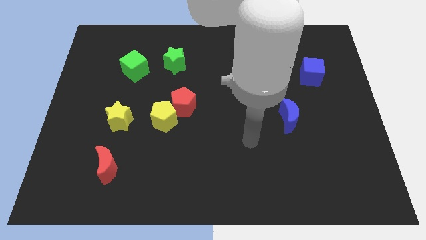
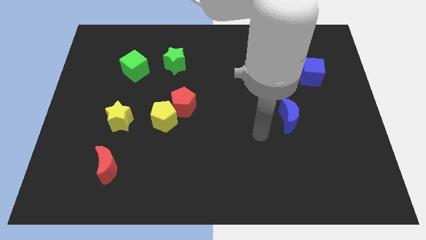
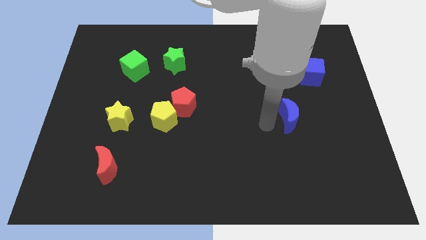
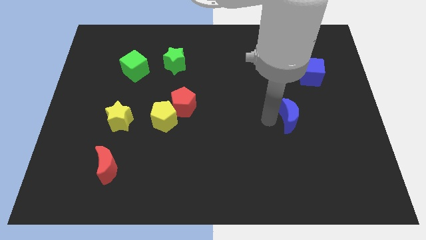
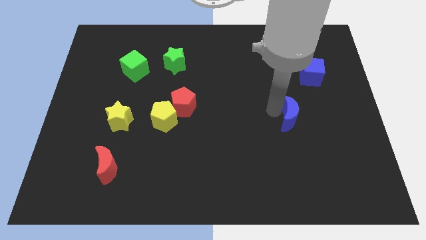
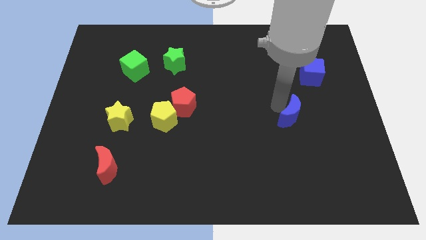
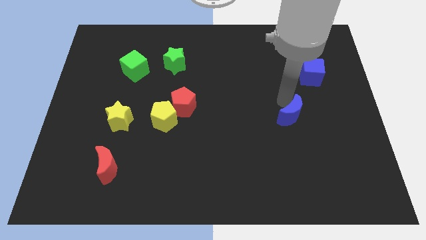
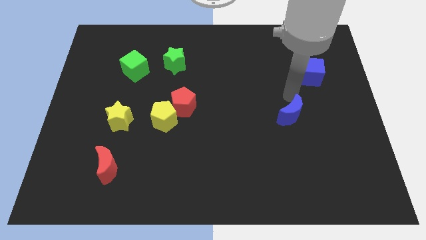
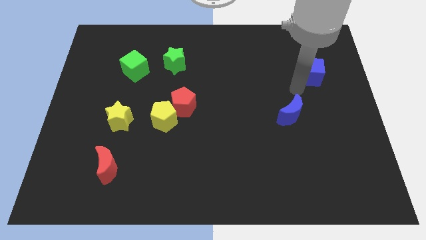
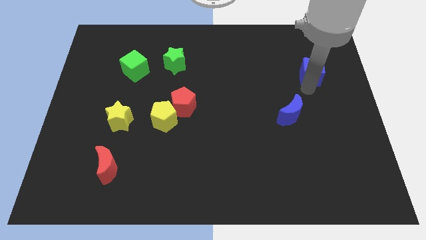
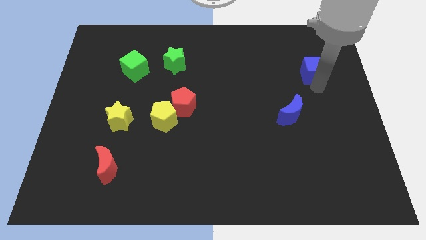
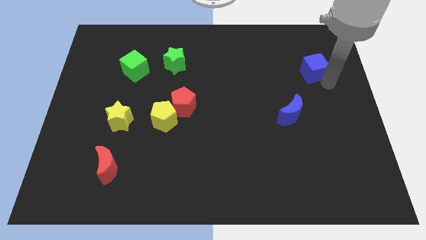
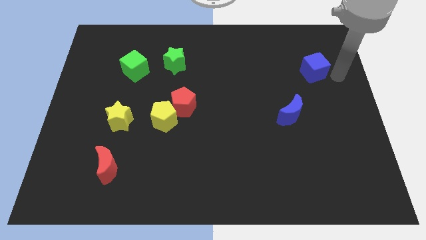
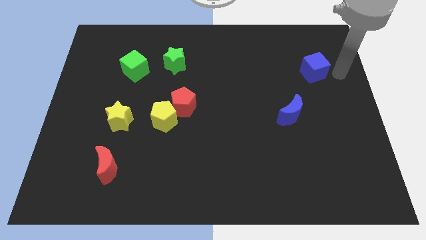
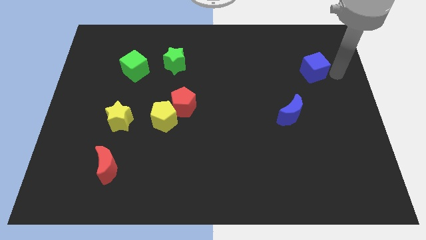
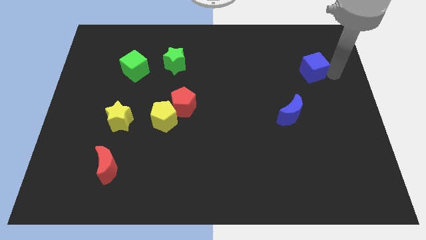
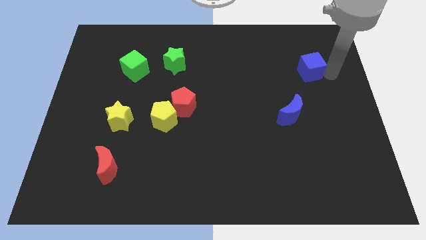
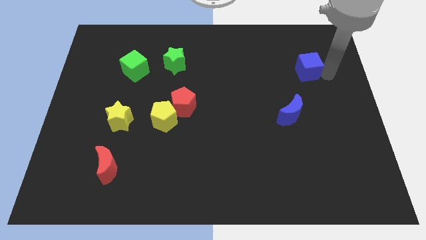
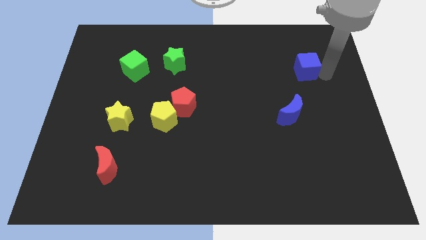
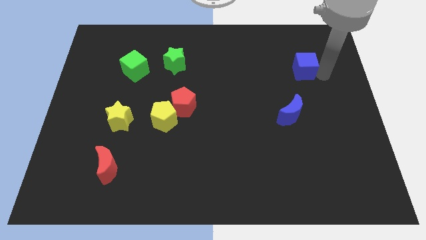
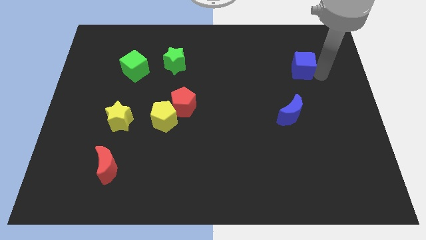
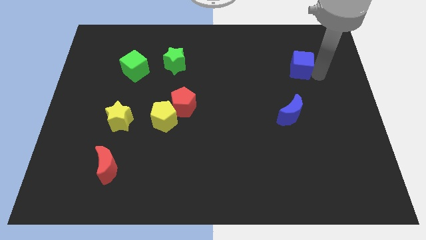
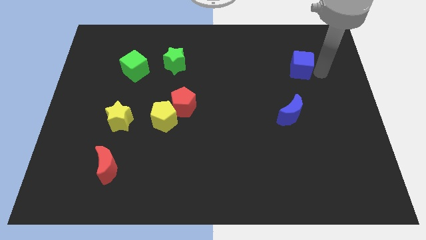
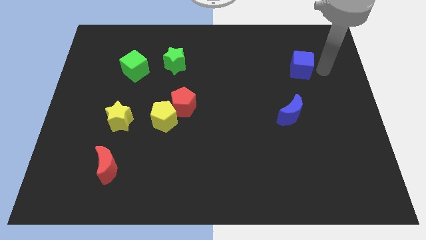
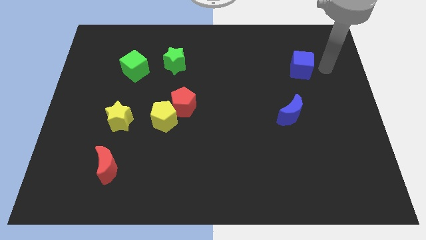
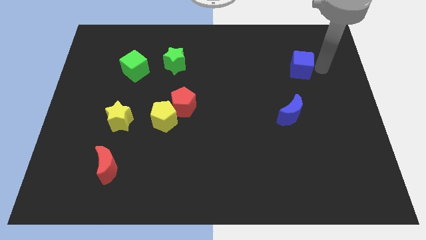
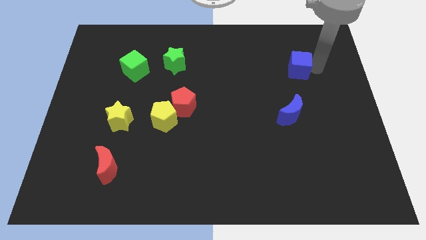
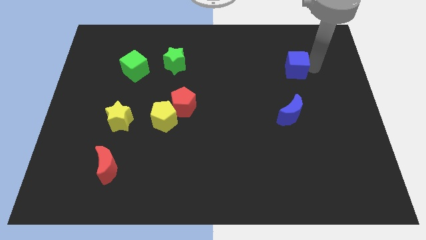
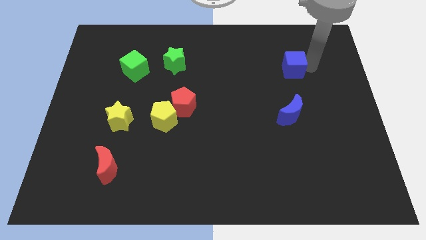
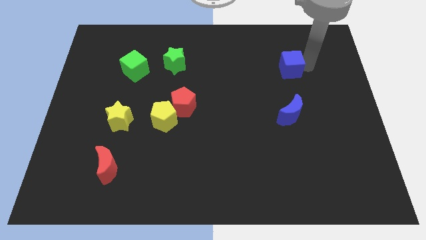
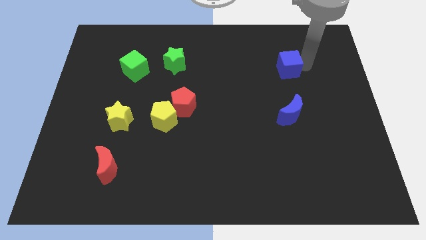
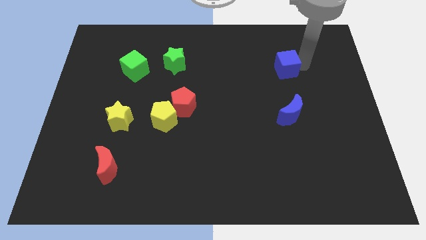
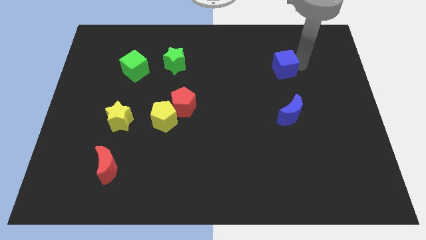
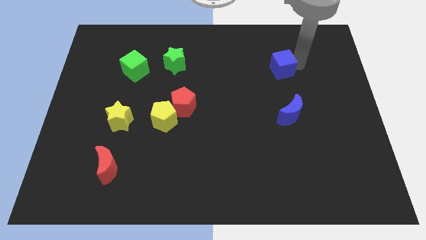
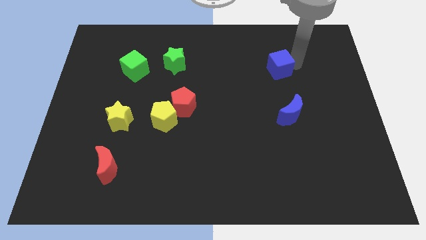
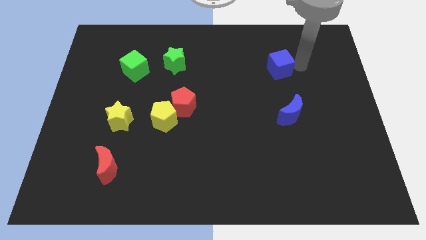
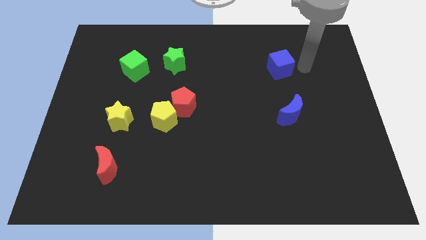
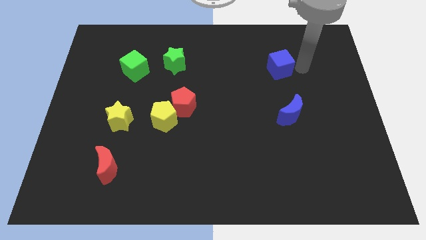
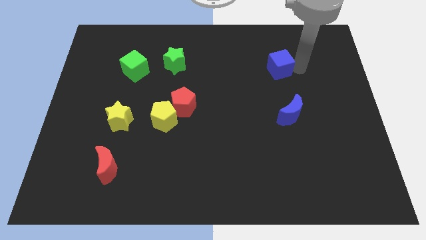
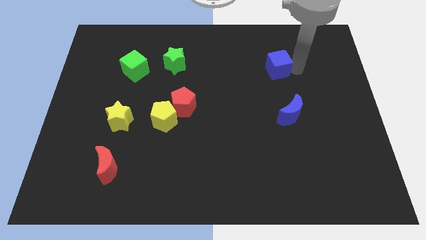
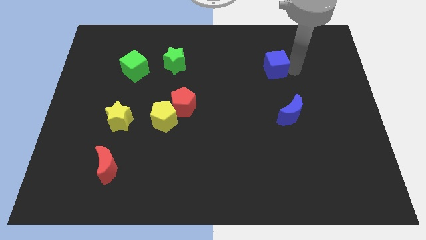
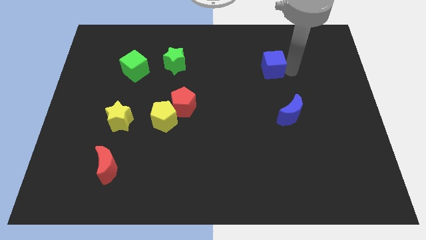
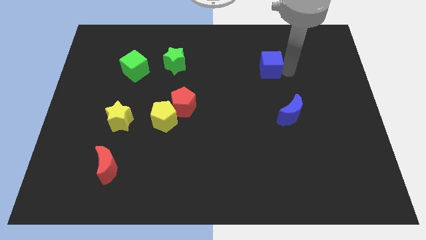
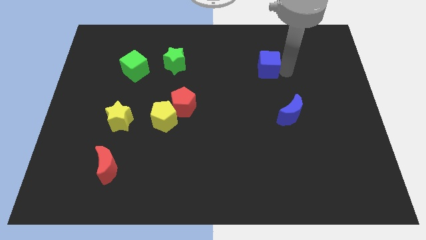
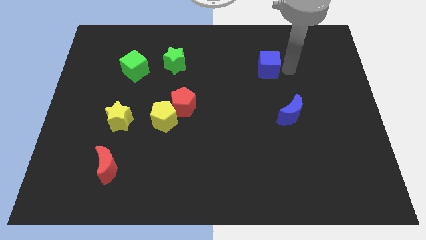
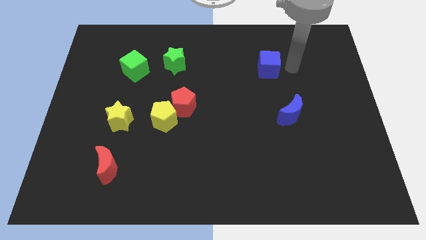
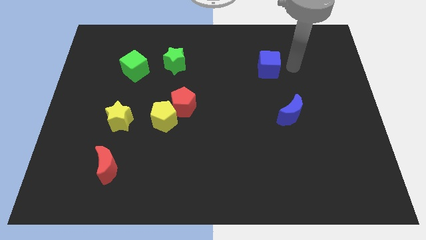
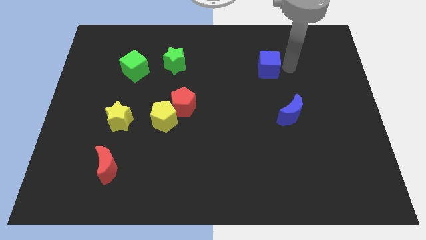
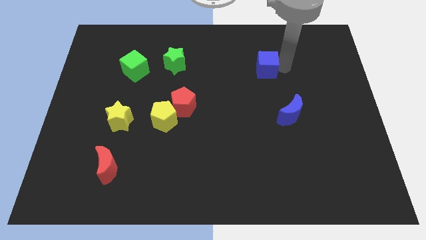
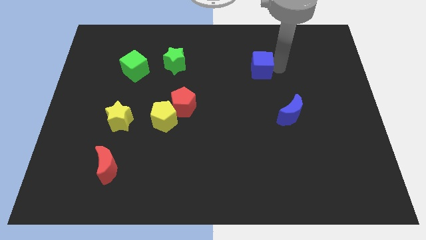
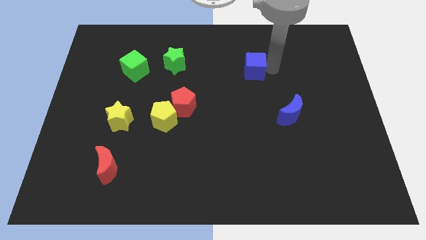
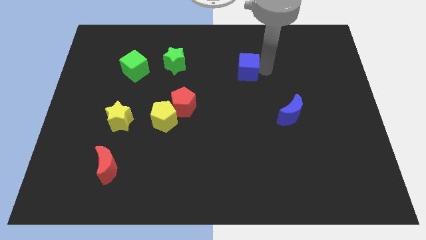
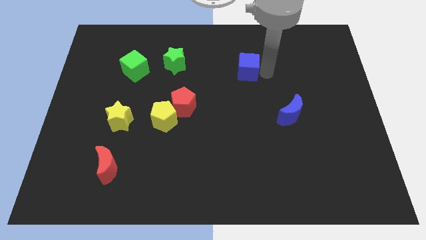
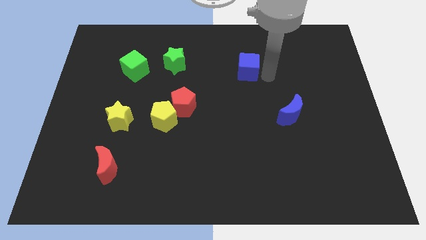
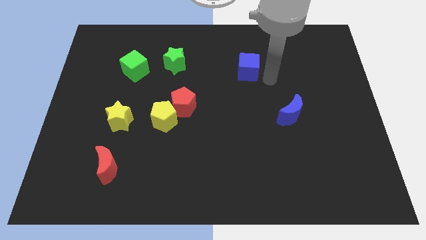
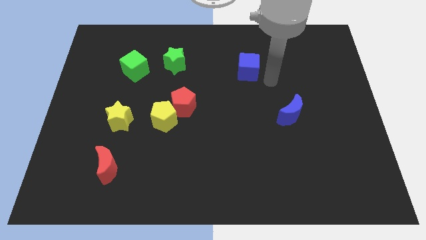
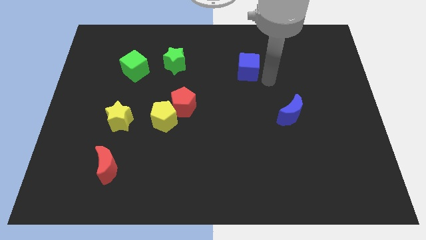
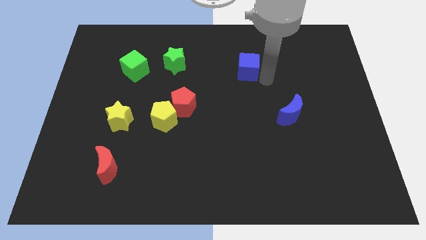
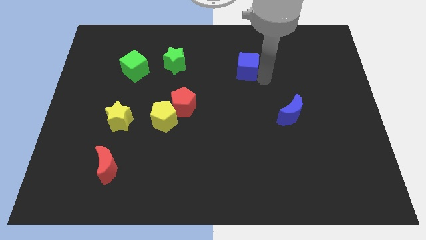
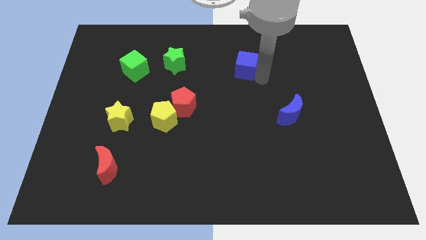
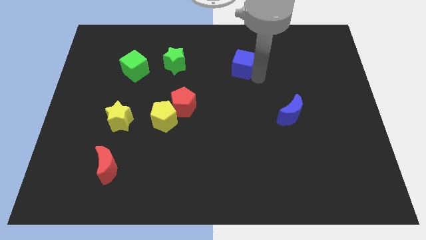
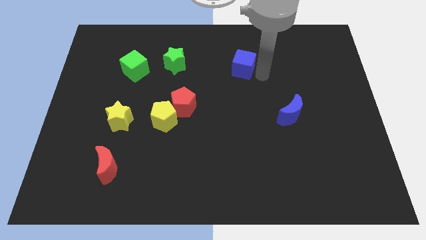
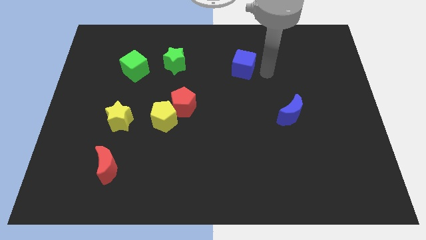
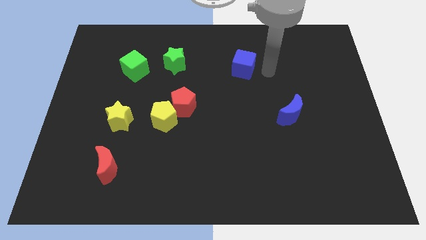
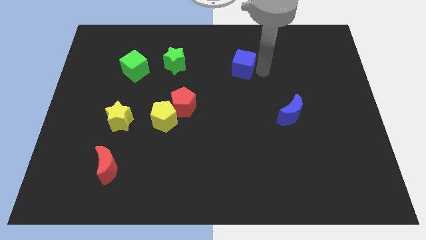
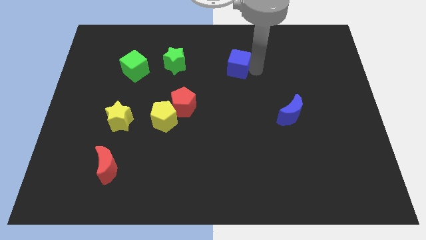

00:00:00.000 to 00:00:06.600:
slide the blue cube right of the green star
